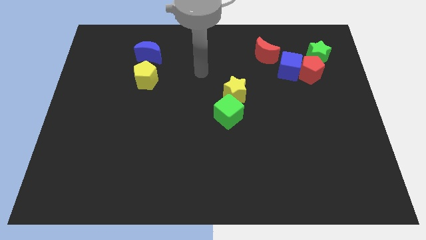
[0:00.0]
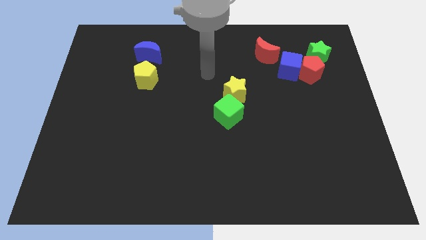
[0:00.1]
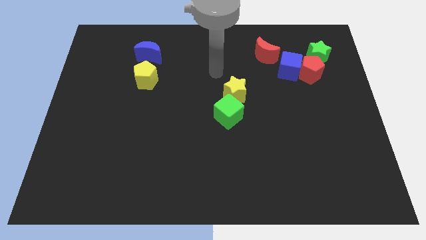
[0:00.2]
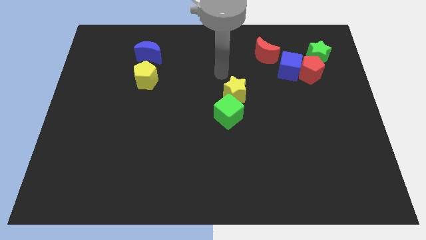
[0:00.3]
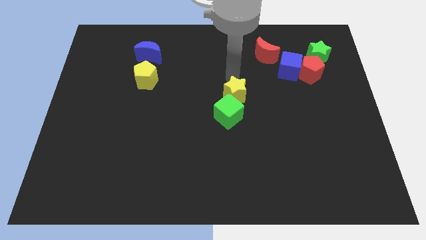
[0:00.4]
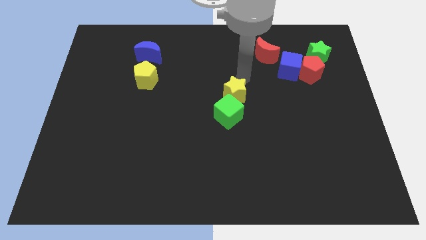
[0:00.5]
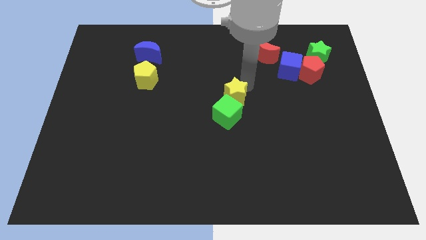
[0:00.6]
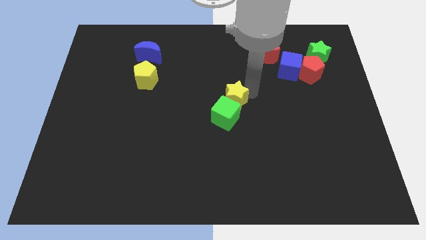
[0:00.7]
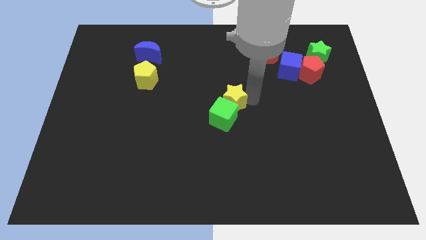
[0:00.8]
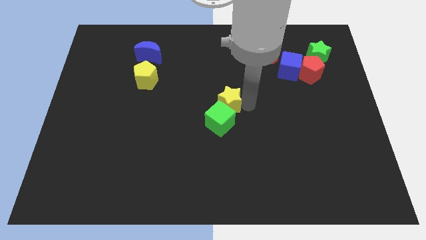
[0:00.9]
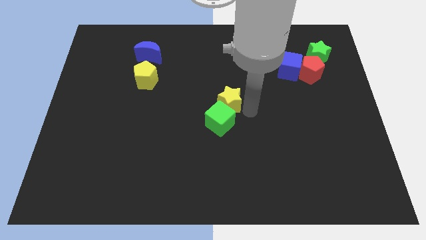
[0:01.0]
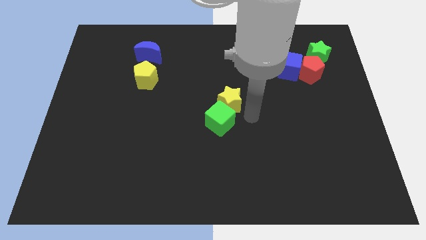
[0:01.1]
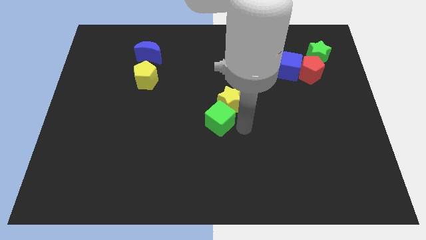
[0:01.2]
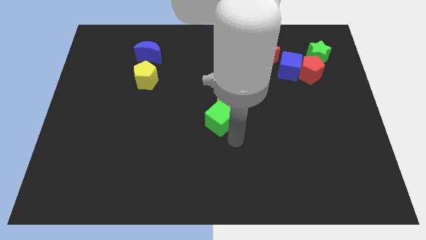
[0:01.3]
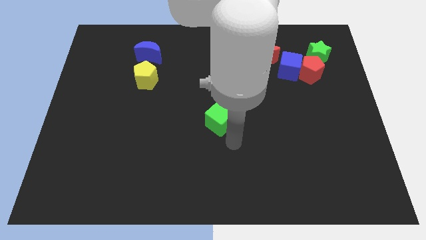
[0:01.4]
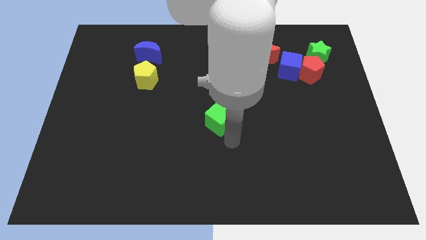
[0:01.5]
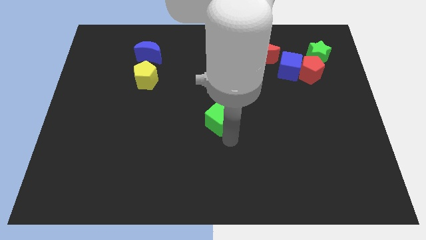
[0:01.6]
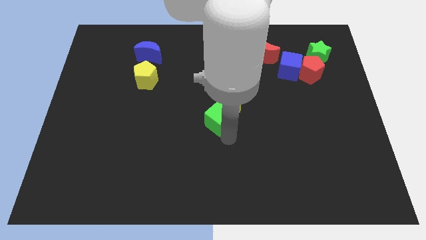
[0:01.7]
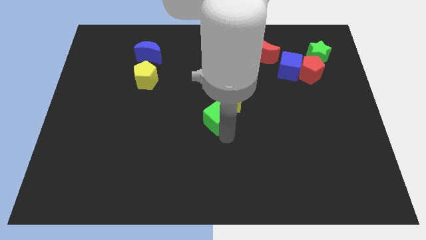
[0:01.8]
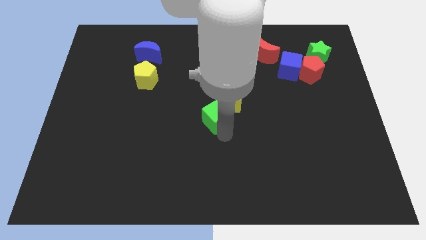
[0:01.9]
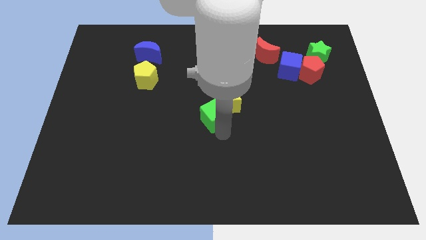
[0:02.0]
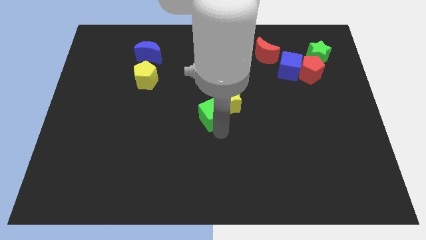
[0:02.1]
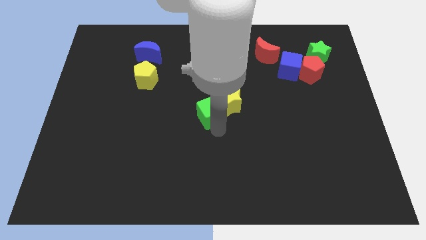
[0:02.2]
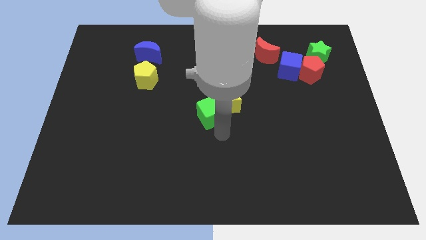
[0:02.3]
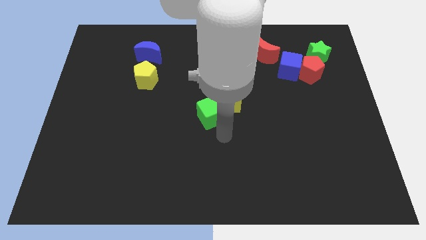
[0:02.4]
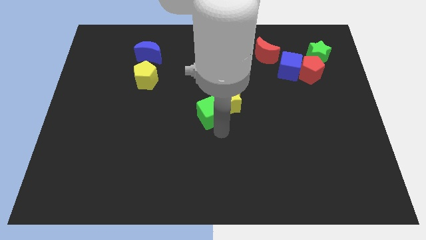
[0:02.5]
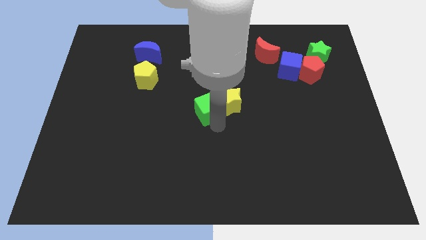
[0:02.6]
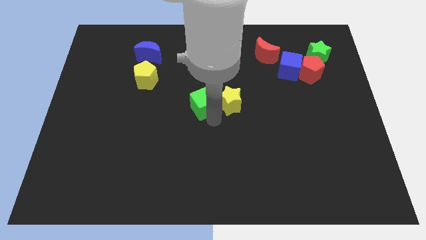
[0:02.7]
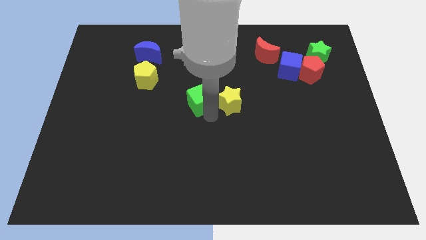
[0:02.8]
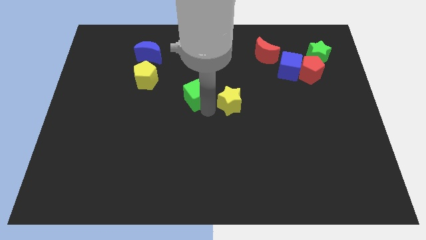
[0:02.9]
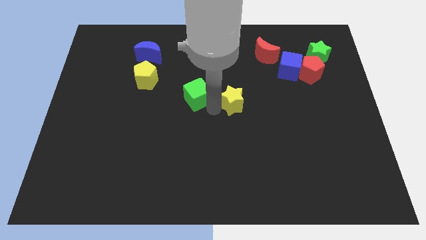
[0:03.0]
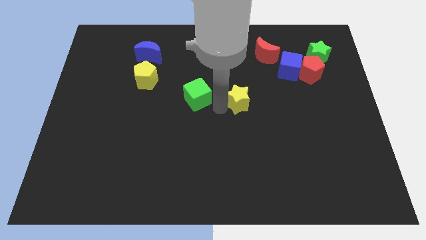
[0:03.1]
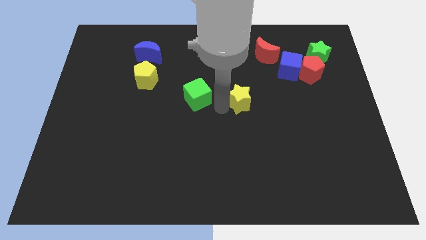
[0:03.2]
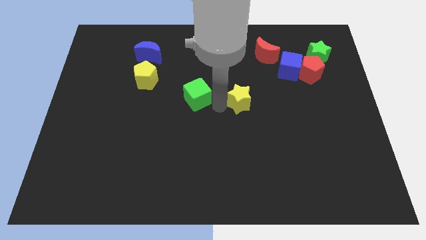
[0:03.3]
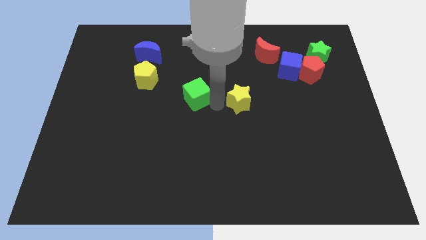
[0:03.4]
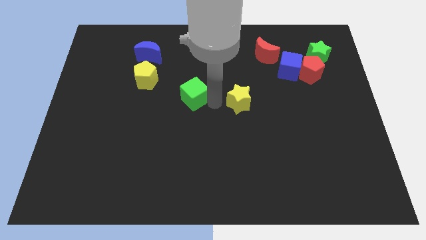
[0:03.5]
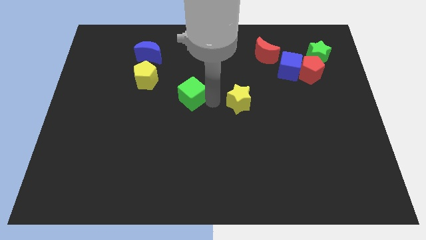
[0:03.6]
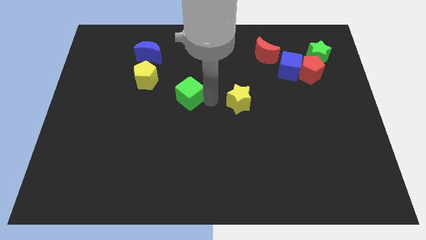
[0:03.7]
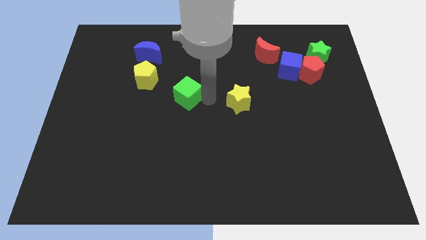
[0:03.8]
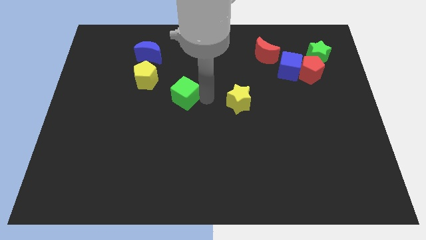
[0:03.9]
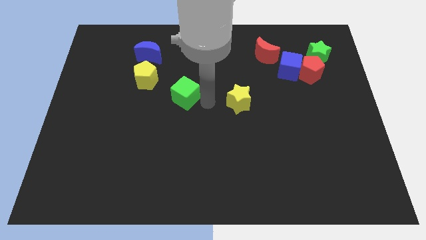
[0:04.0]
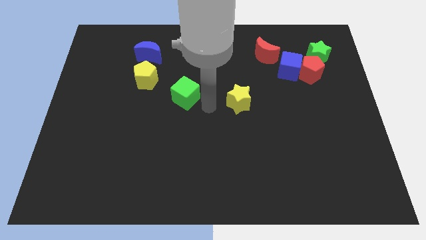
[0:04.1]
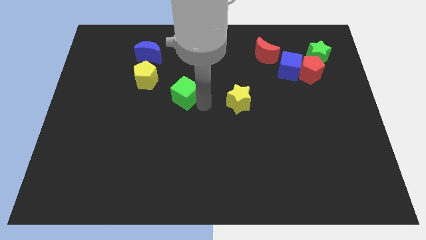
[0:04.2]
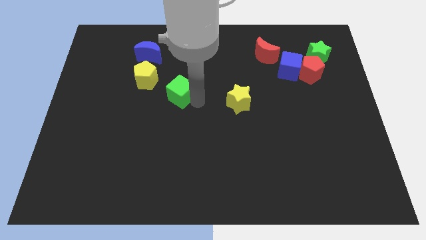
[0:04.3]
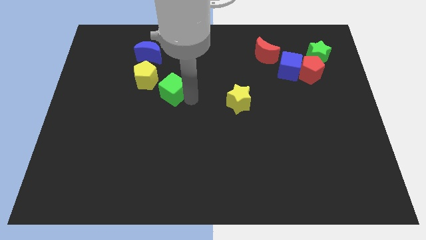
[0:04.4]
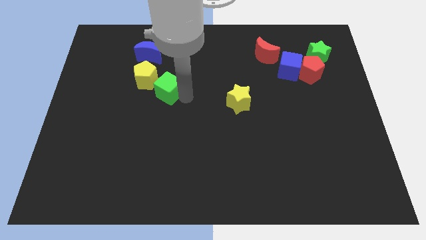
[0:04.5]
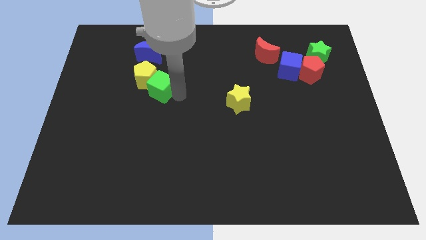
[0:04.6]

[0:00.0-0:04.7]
push the green cube towards the yellow pentagon

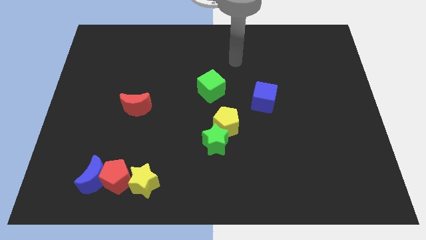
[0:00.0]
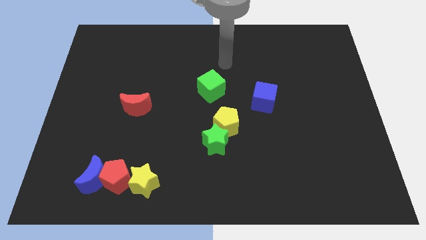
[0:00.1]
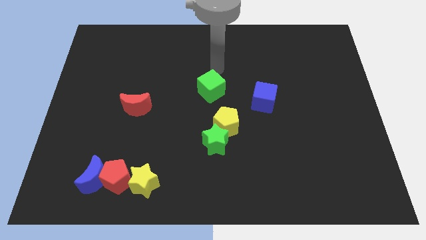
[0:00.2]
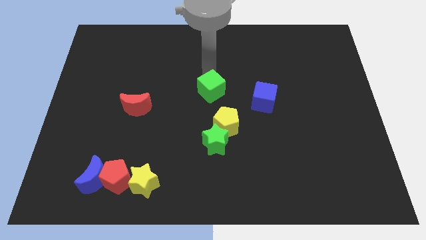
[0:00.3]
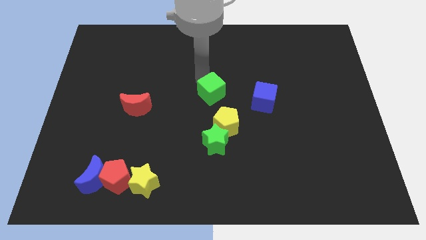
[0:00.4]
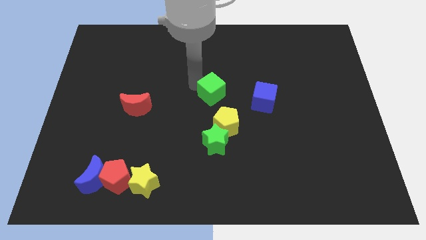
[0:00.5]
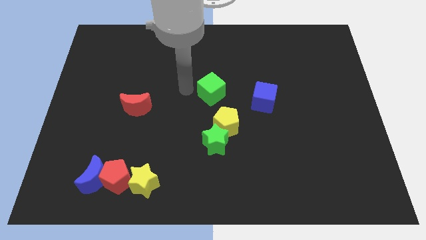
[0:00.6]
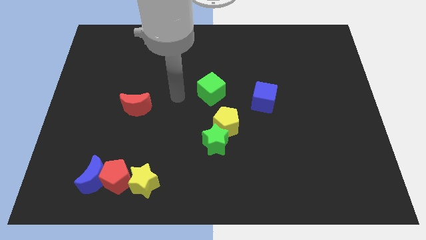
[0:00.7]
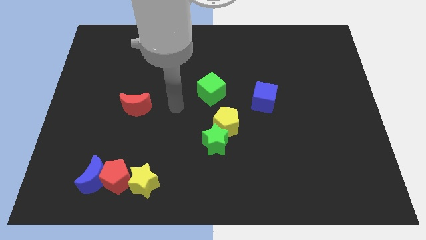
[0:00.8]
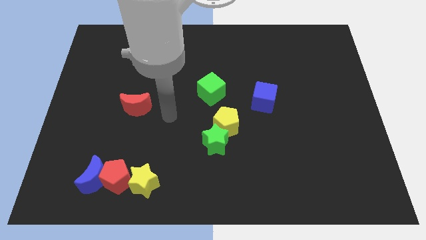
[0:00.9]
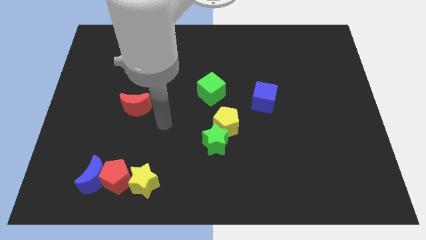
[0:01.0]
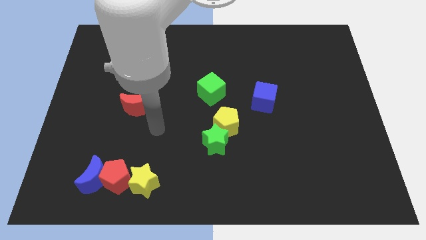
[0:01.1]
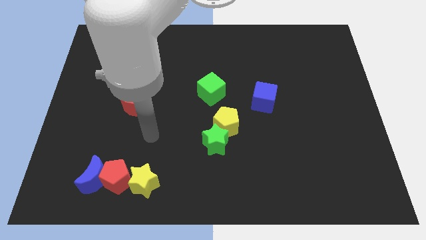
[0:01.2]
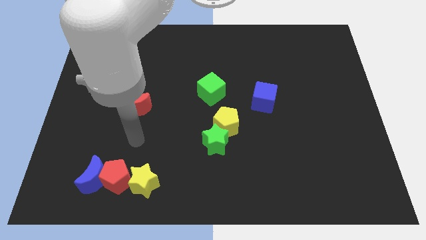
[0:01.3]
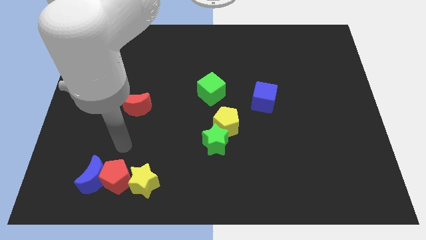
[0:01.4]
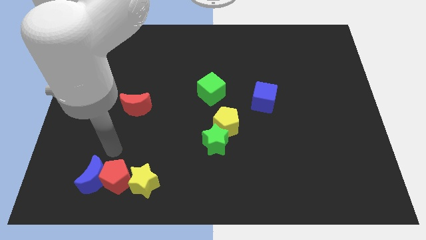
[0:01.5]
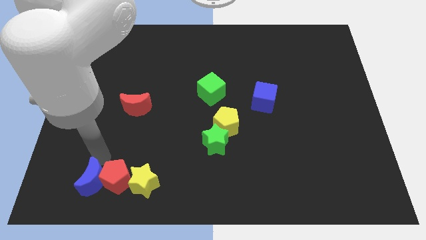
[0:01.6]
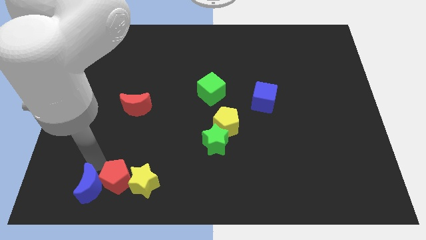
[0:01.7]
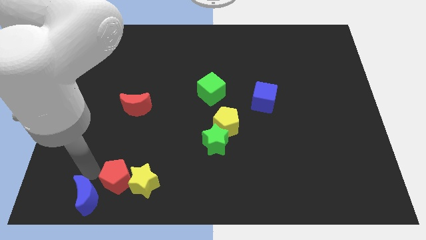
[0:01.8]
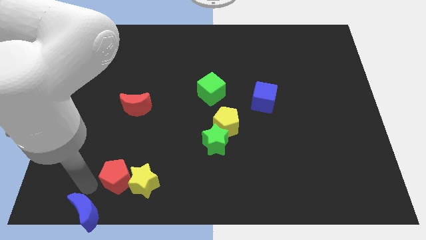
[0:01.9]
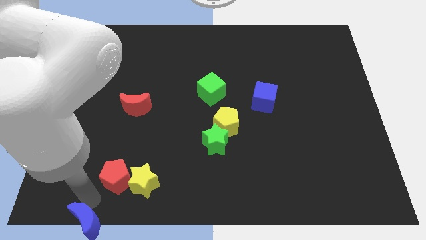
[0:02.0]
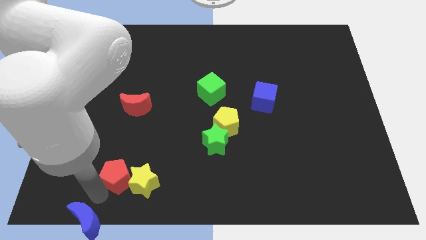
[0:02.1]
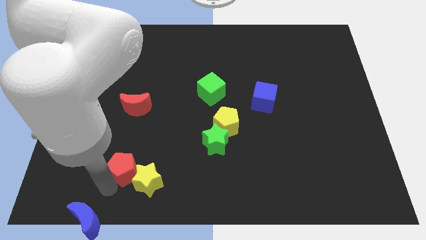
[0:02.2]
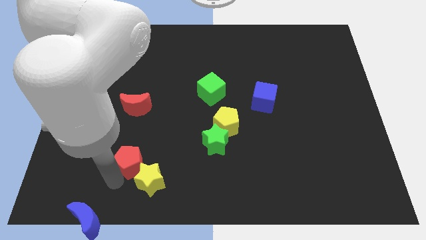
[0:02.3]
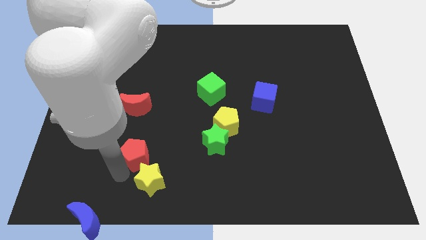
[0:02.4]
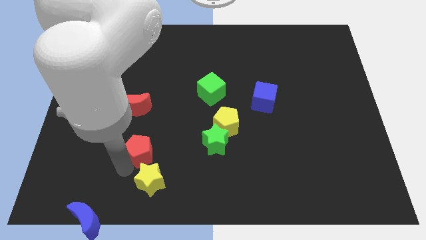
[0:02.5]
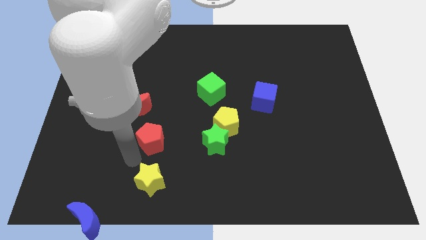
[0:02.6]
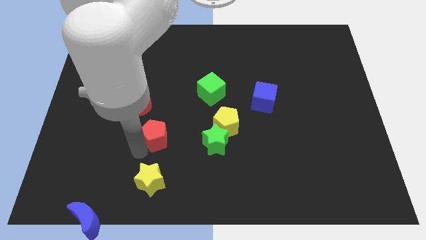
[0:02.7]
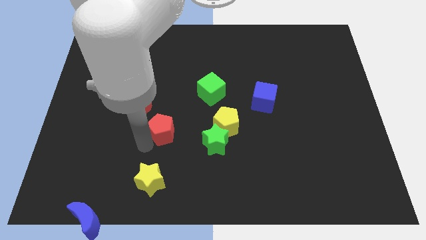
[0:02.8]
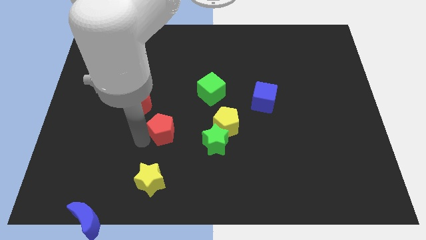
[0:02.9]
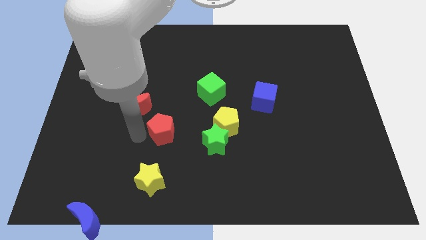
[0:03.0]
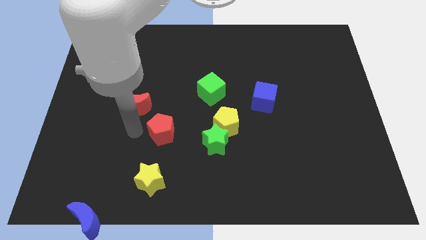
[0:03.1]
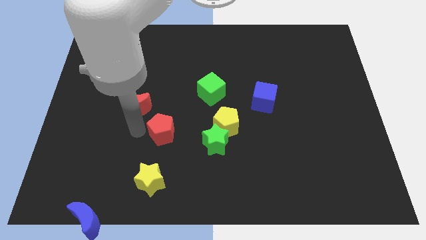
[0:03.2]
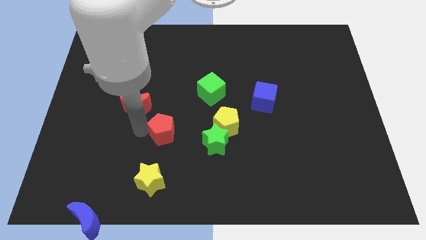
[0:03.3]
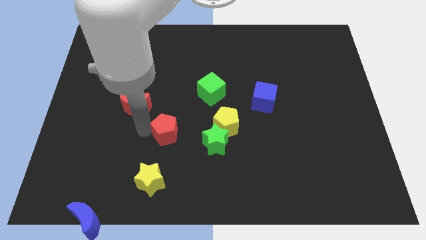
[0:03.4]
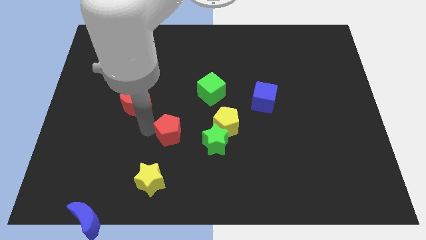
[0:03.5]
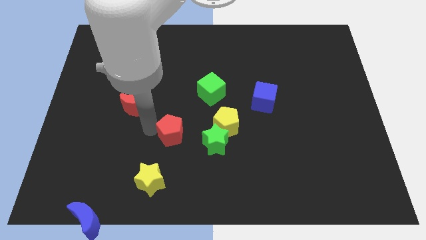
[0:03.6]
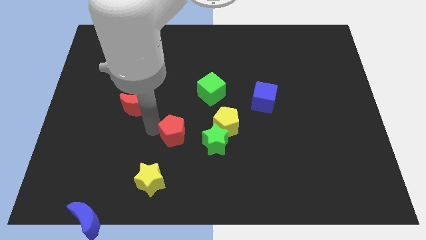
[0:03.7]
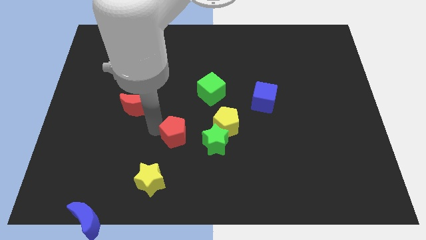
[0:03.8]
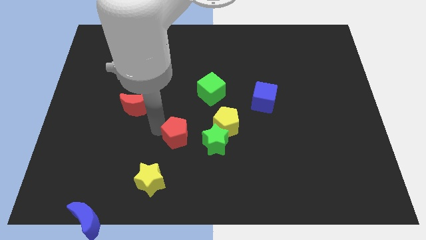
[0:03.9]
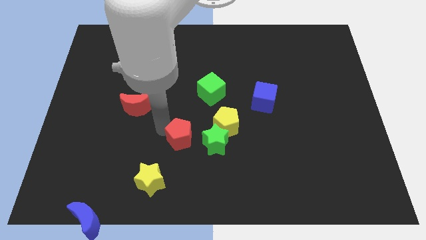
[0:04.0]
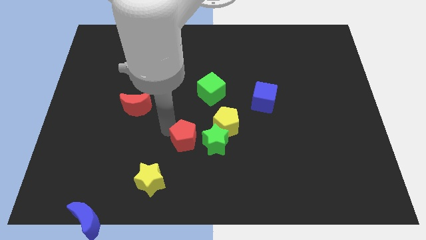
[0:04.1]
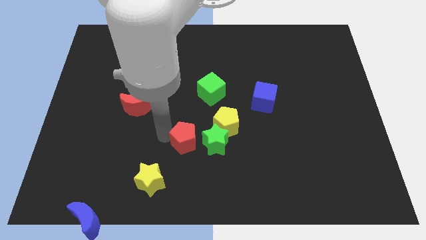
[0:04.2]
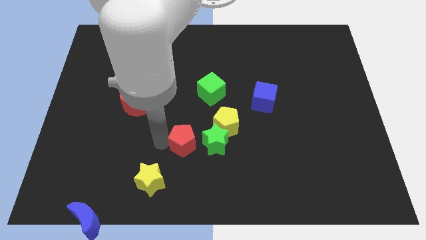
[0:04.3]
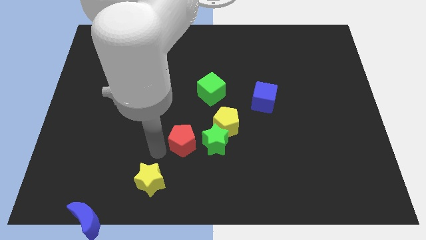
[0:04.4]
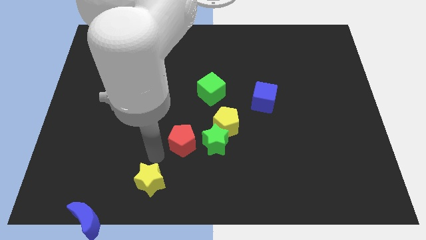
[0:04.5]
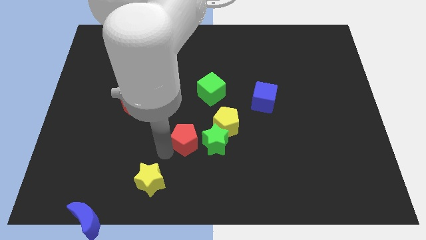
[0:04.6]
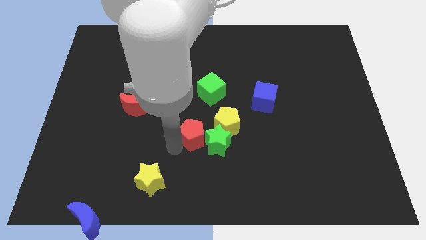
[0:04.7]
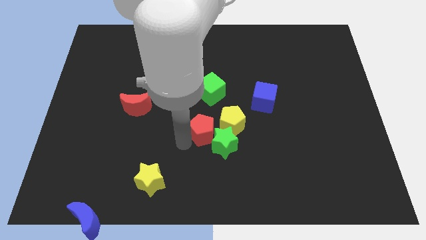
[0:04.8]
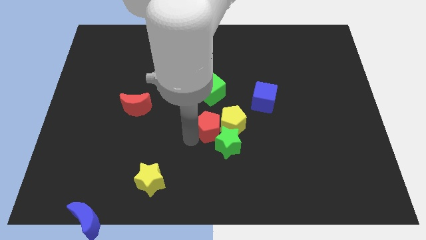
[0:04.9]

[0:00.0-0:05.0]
slide the red pentagon next to the yellow pentagon
